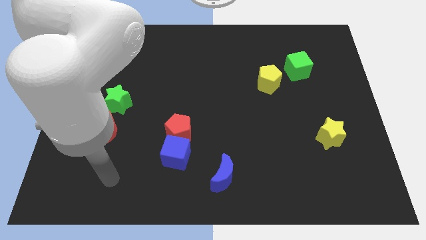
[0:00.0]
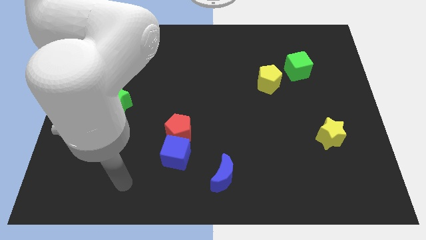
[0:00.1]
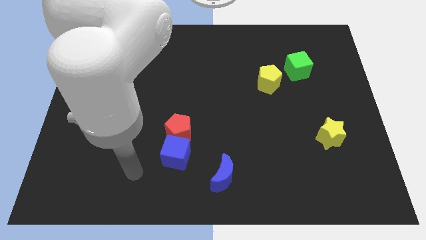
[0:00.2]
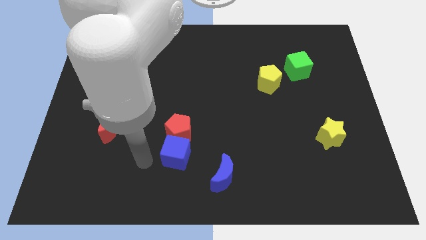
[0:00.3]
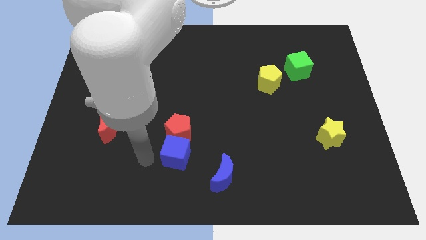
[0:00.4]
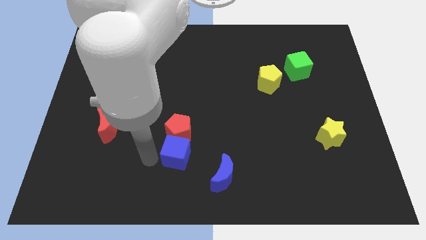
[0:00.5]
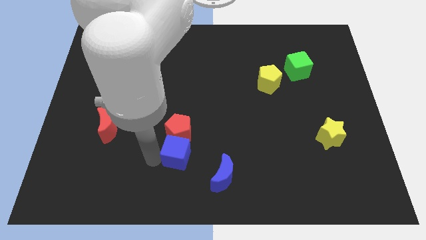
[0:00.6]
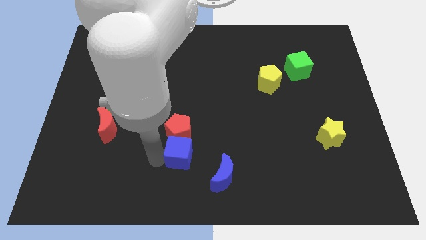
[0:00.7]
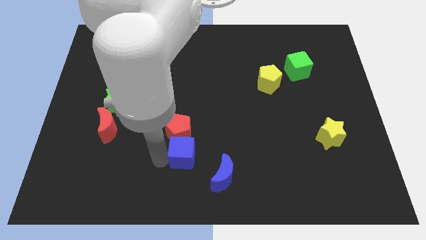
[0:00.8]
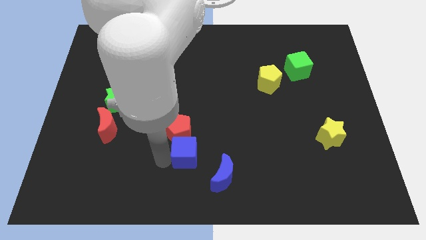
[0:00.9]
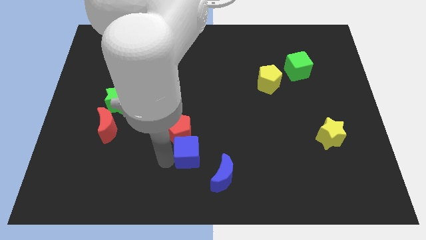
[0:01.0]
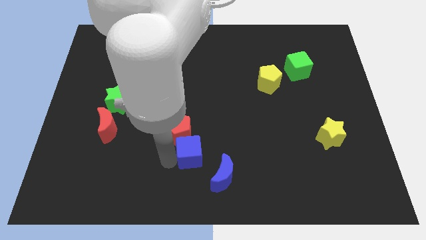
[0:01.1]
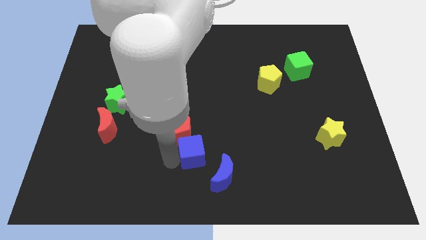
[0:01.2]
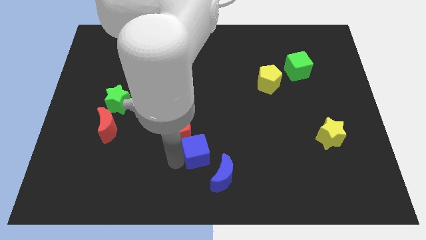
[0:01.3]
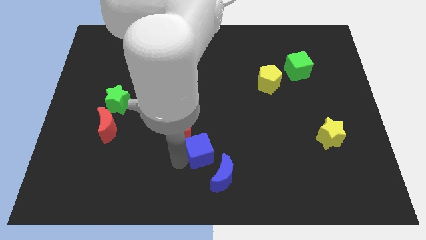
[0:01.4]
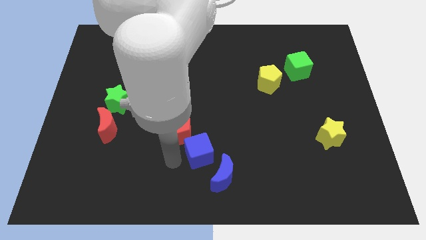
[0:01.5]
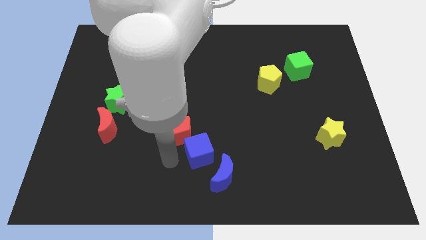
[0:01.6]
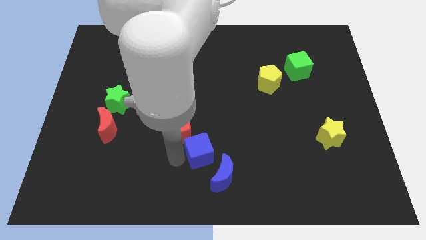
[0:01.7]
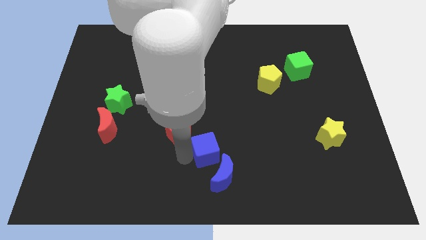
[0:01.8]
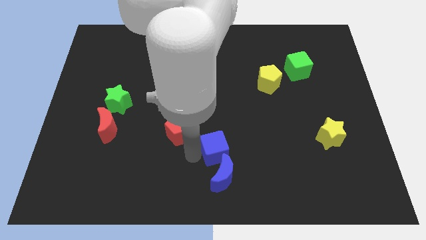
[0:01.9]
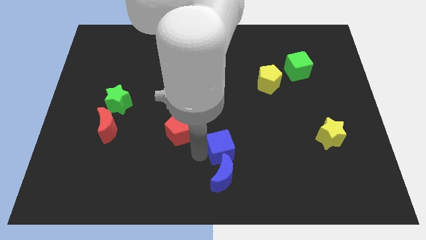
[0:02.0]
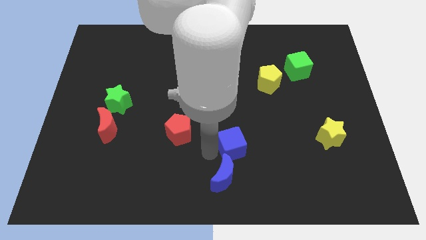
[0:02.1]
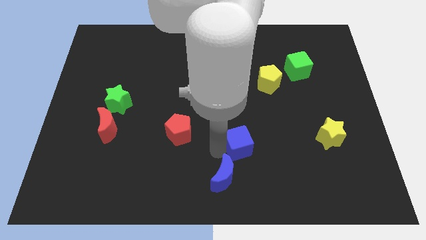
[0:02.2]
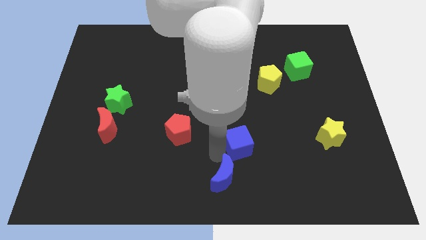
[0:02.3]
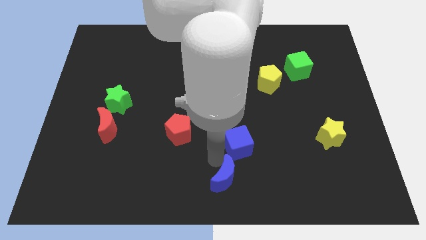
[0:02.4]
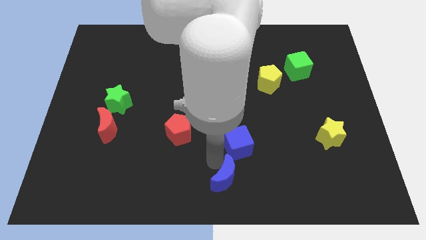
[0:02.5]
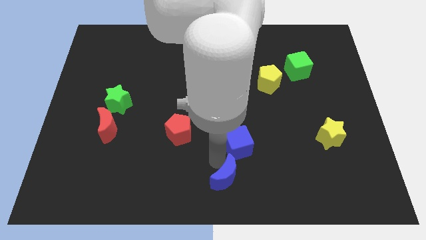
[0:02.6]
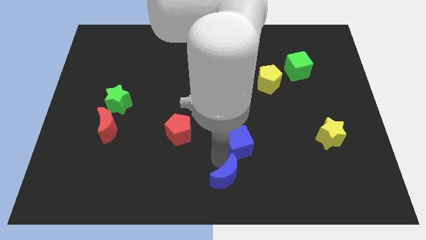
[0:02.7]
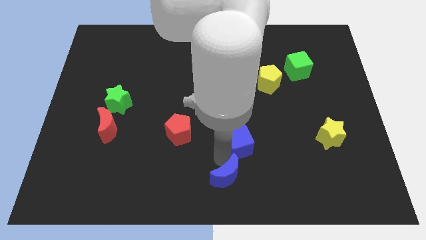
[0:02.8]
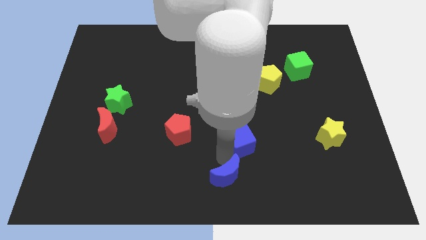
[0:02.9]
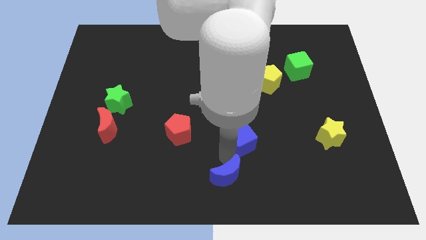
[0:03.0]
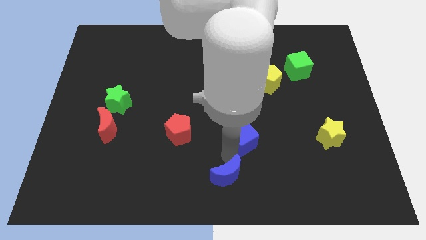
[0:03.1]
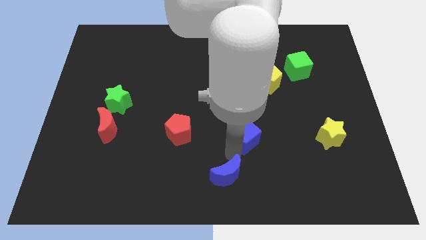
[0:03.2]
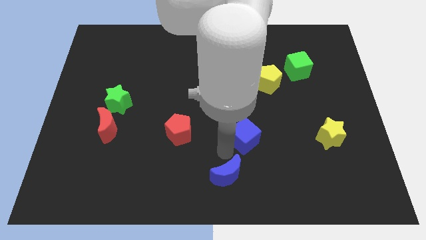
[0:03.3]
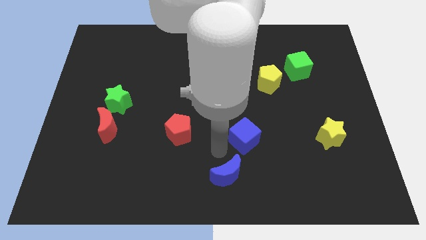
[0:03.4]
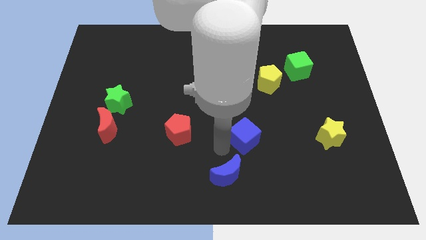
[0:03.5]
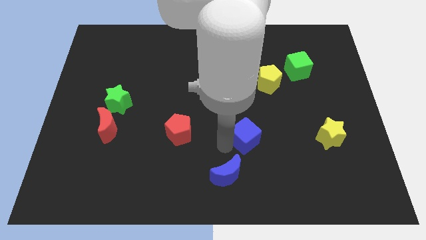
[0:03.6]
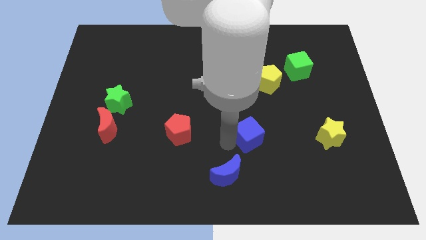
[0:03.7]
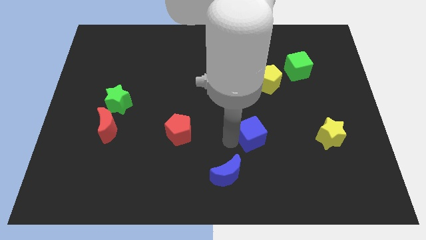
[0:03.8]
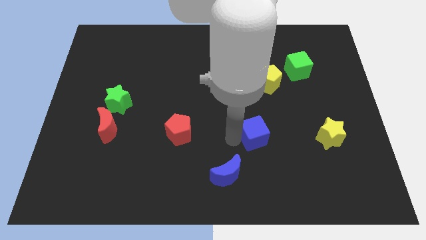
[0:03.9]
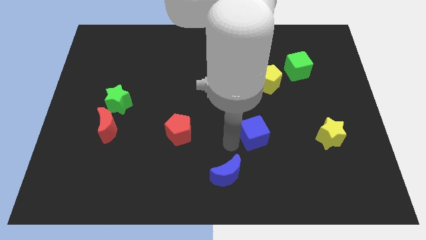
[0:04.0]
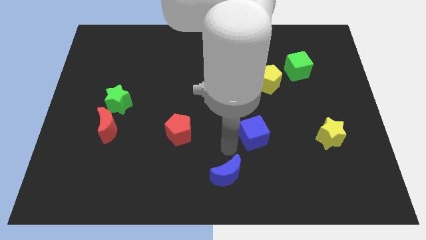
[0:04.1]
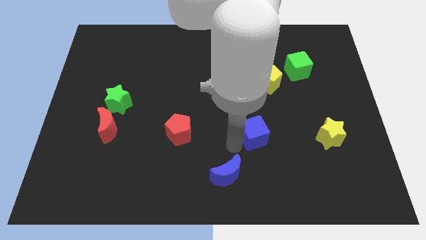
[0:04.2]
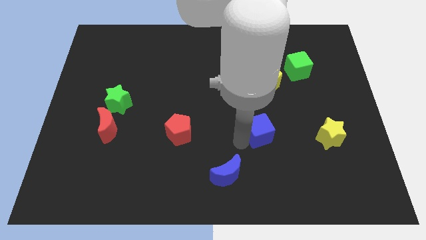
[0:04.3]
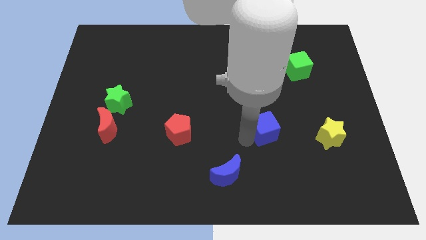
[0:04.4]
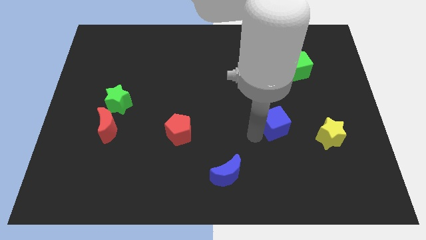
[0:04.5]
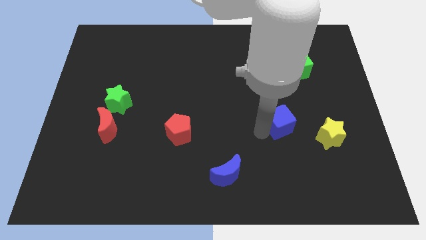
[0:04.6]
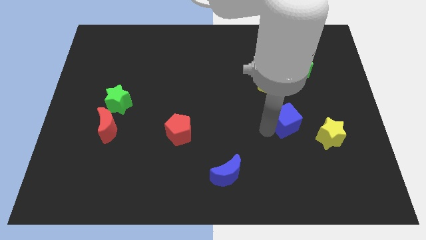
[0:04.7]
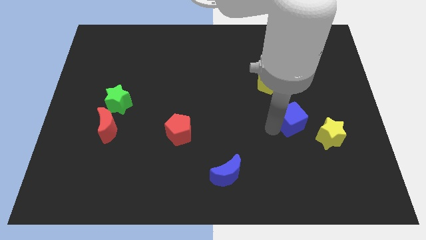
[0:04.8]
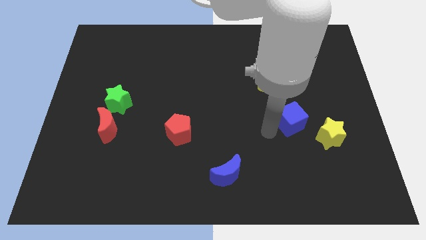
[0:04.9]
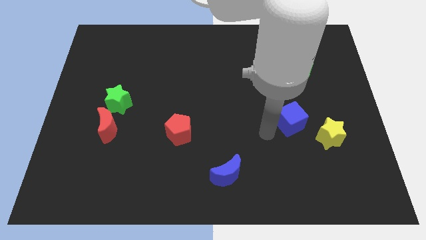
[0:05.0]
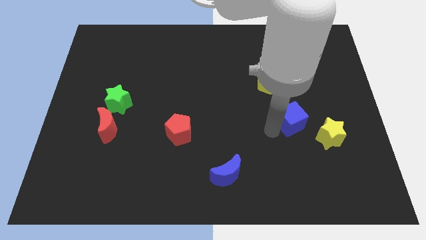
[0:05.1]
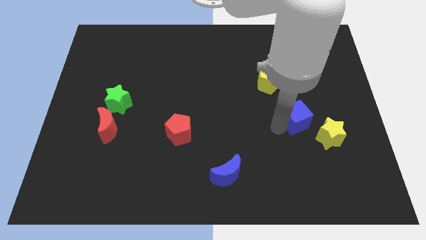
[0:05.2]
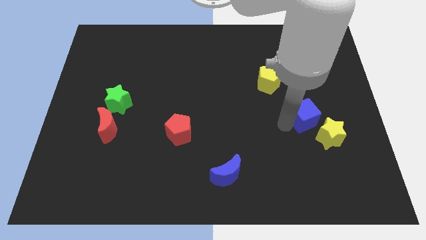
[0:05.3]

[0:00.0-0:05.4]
slide the blue cube to the top side of the yellow star

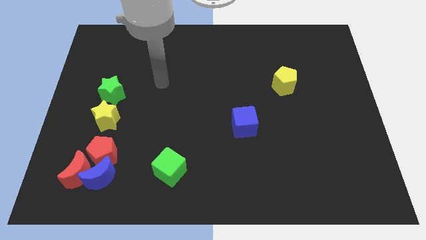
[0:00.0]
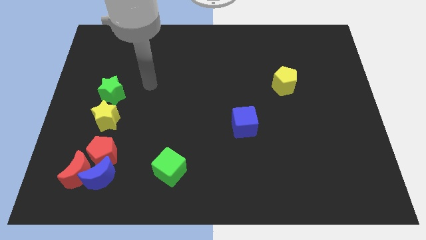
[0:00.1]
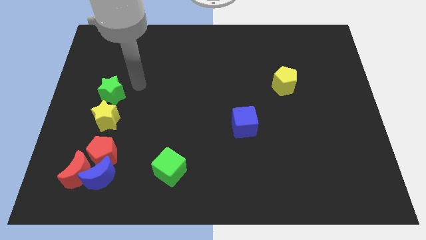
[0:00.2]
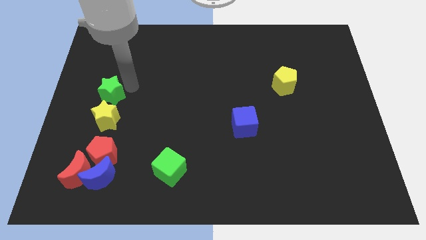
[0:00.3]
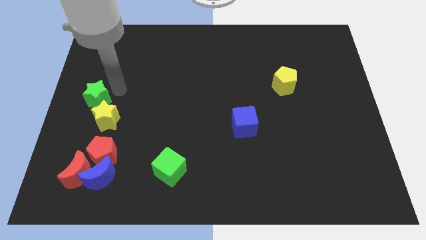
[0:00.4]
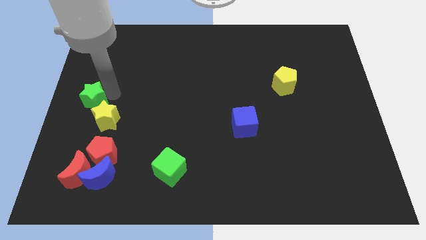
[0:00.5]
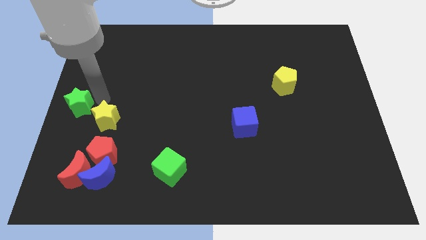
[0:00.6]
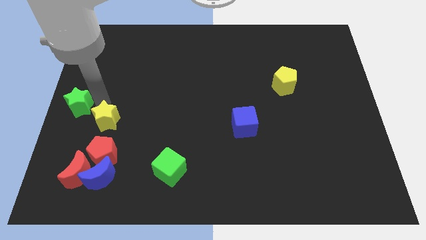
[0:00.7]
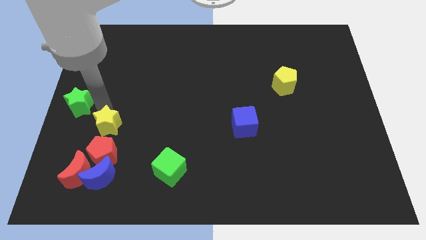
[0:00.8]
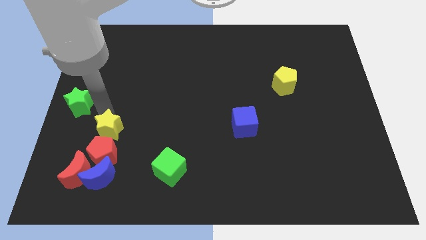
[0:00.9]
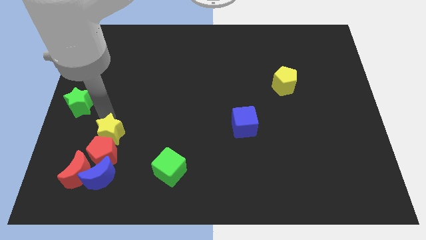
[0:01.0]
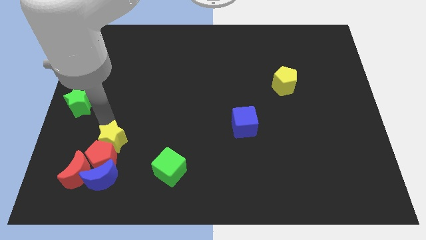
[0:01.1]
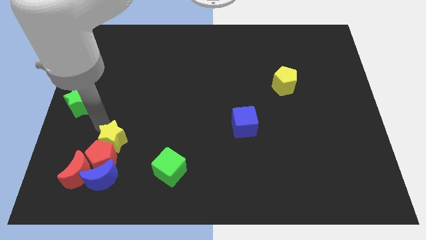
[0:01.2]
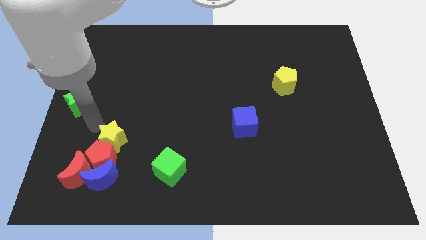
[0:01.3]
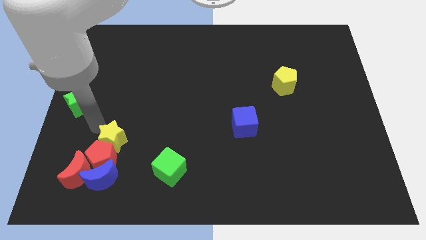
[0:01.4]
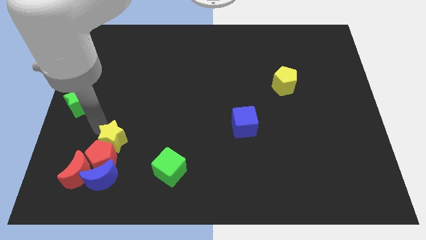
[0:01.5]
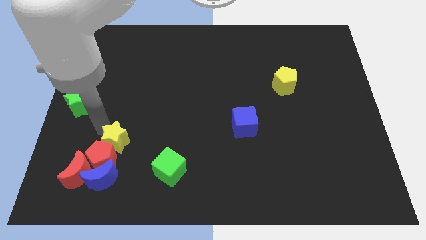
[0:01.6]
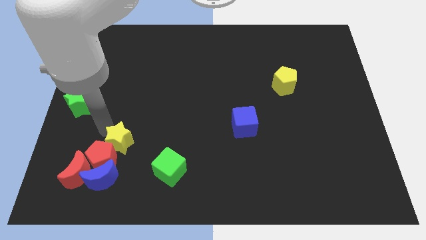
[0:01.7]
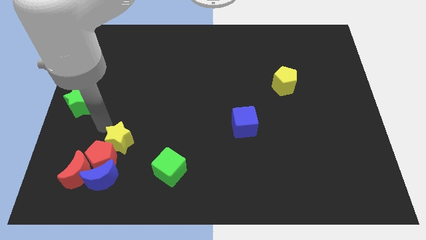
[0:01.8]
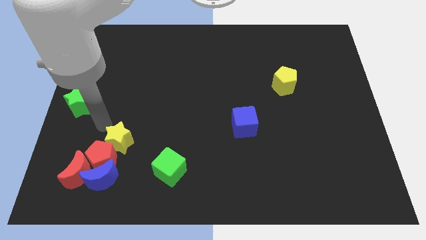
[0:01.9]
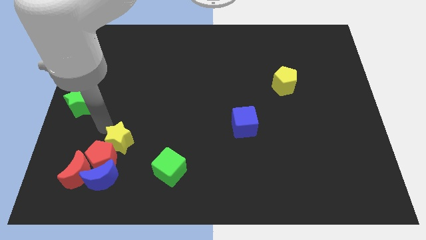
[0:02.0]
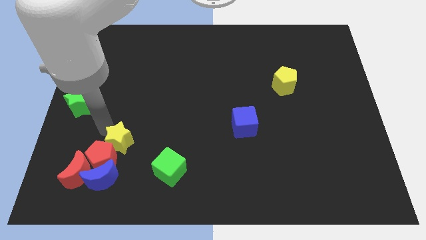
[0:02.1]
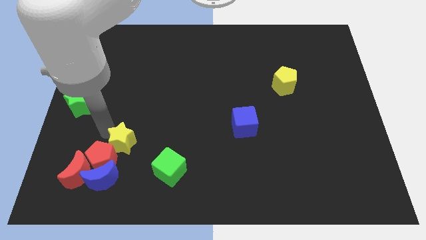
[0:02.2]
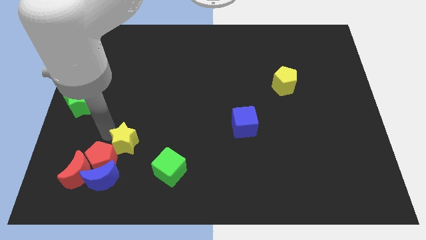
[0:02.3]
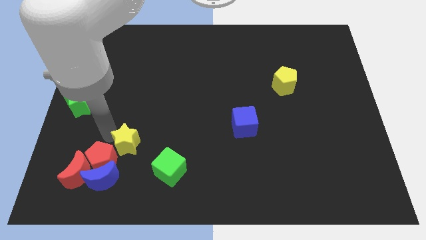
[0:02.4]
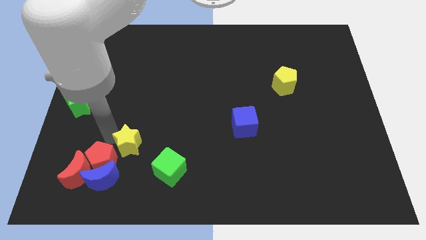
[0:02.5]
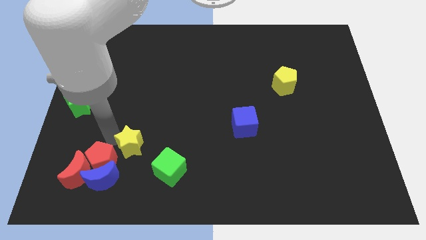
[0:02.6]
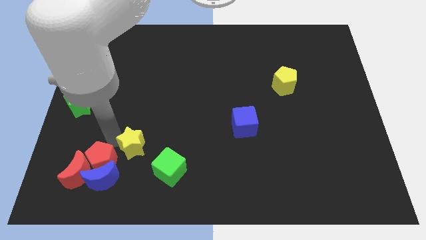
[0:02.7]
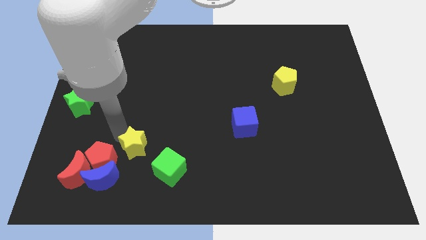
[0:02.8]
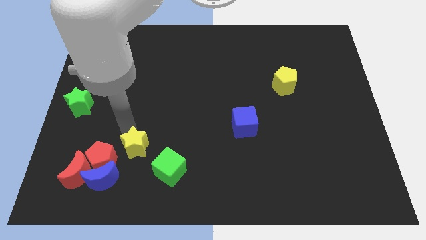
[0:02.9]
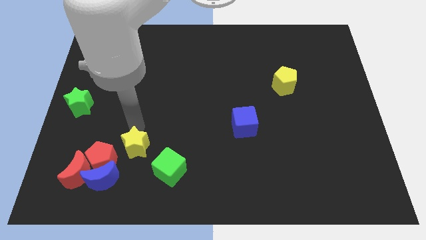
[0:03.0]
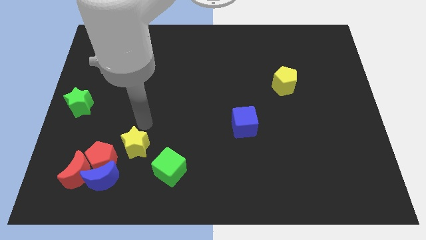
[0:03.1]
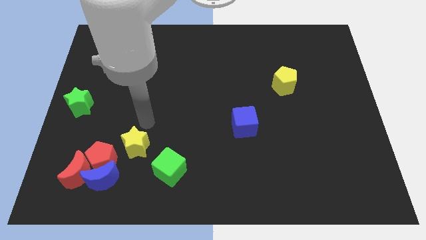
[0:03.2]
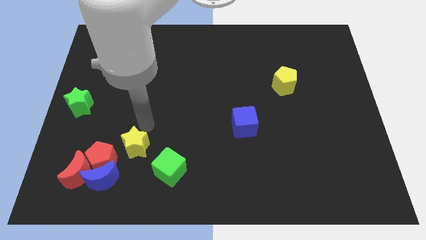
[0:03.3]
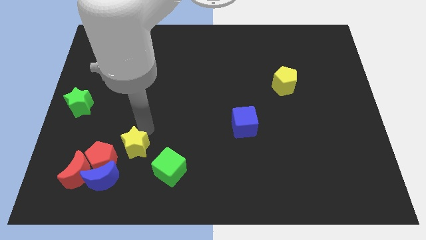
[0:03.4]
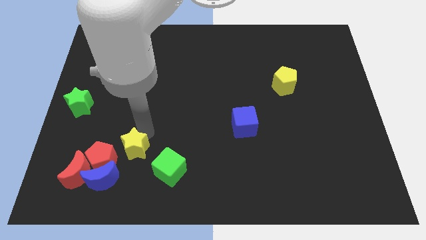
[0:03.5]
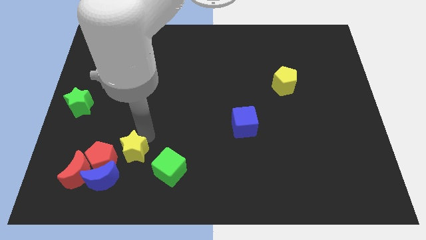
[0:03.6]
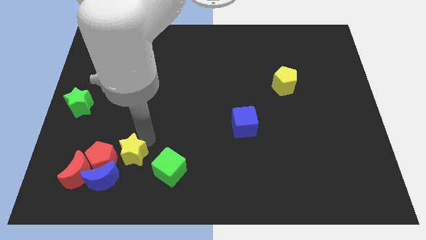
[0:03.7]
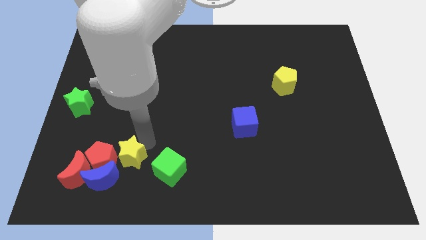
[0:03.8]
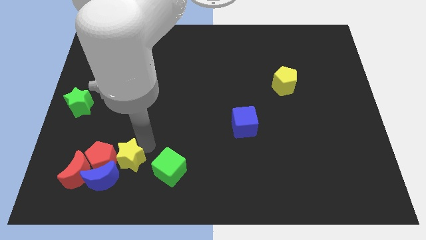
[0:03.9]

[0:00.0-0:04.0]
slide the yellow star diagonally down and to the right of the red pentagon
